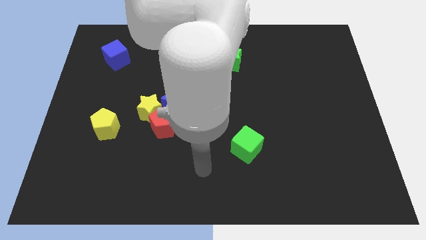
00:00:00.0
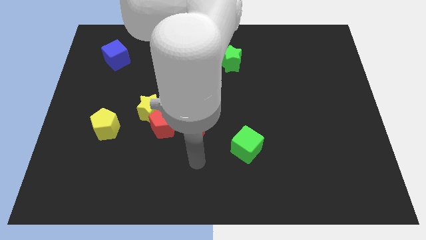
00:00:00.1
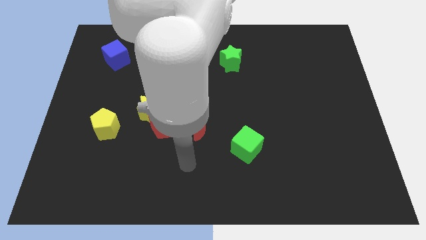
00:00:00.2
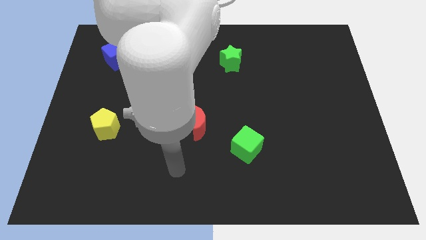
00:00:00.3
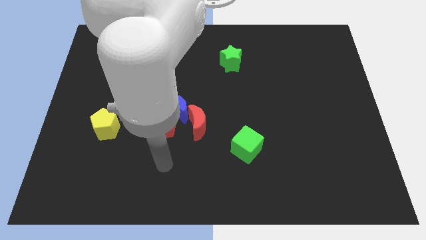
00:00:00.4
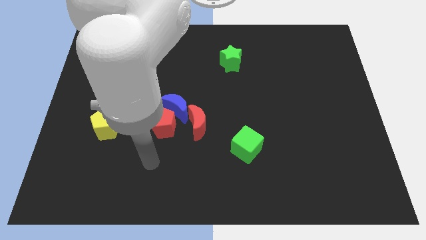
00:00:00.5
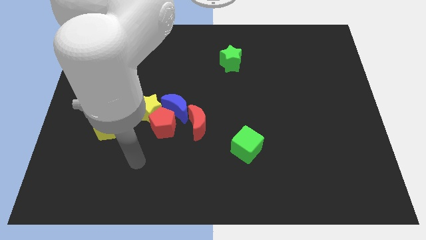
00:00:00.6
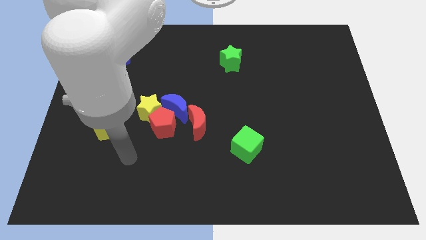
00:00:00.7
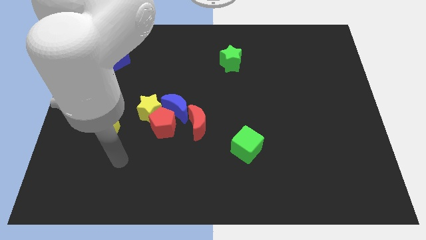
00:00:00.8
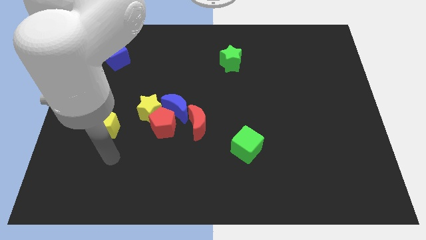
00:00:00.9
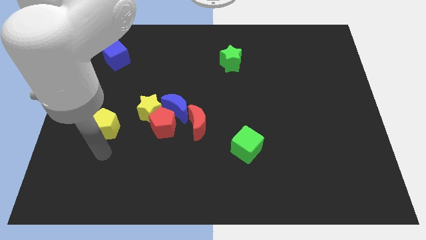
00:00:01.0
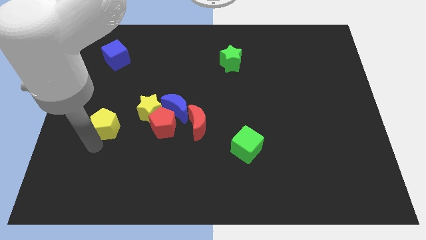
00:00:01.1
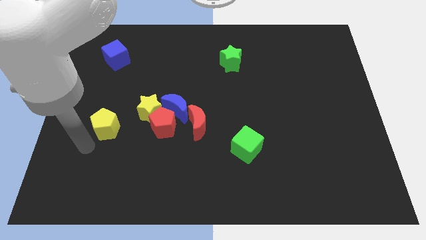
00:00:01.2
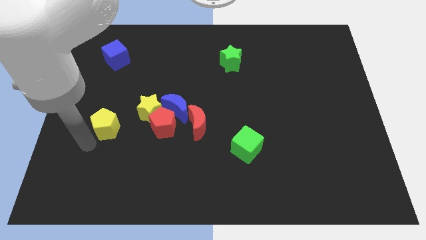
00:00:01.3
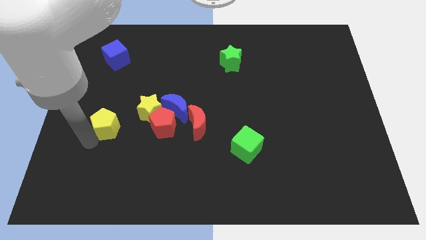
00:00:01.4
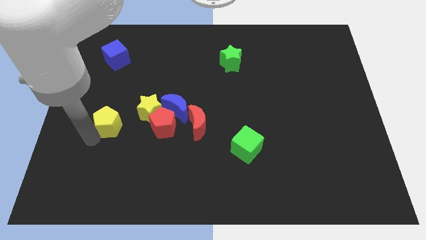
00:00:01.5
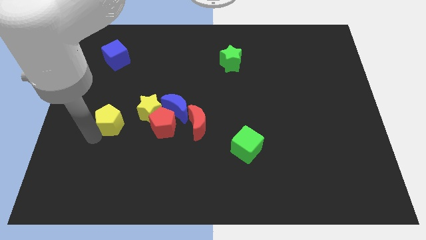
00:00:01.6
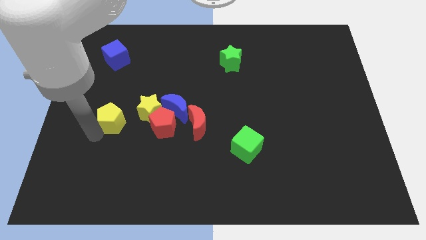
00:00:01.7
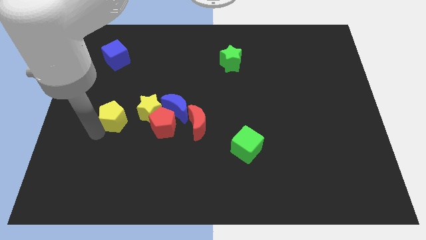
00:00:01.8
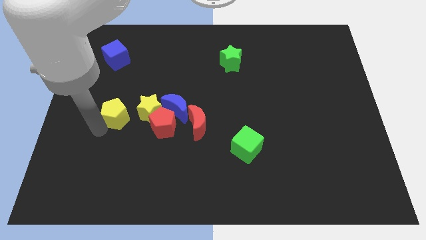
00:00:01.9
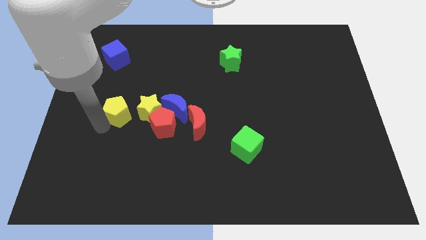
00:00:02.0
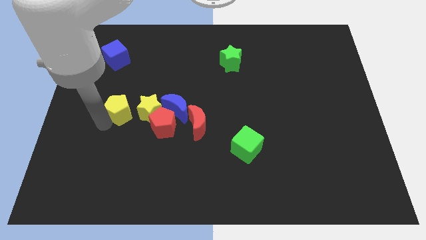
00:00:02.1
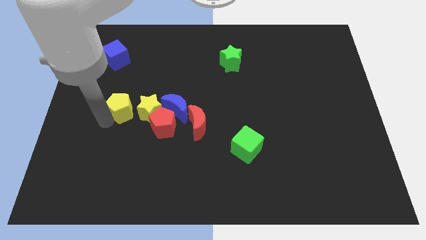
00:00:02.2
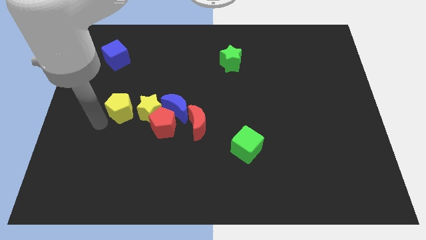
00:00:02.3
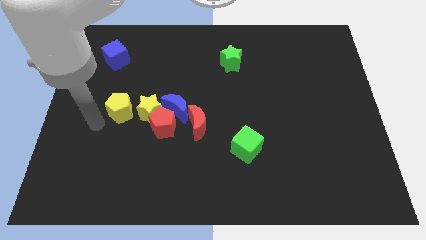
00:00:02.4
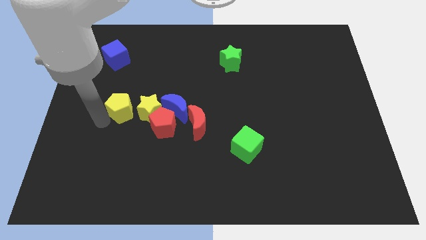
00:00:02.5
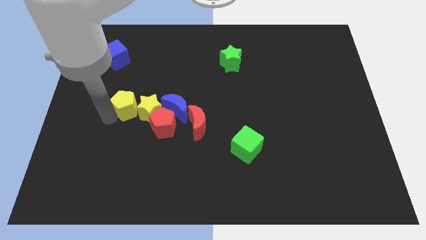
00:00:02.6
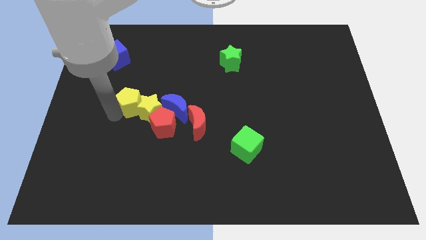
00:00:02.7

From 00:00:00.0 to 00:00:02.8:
slightly slide the yellow pentagon diagonally upwards and to the right

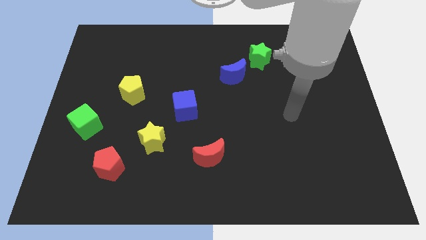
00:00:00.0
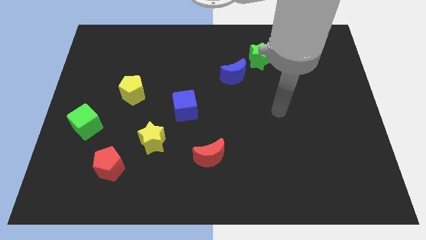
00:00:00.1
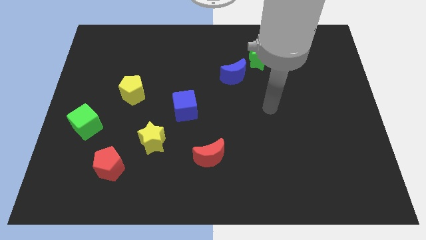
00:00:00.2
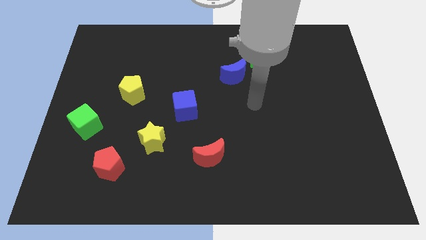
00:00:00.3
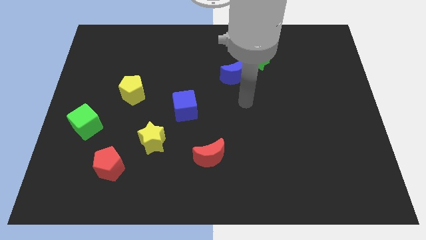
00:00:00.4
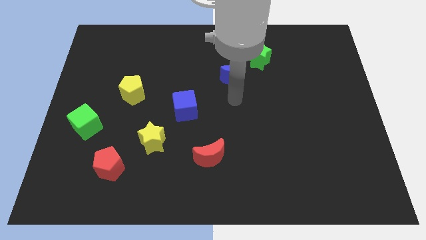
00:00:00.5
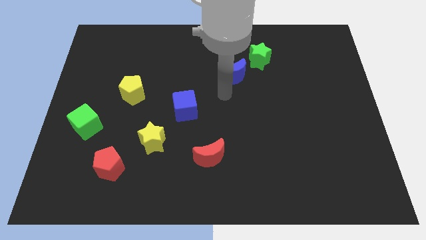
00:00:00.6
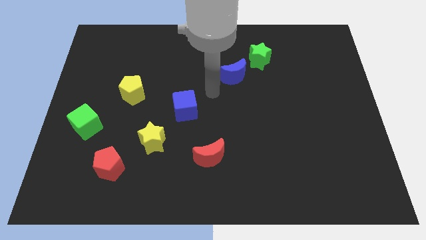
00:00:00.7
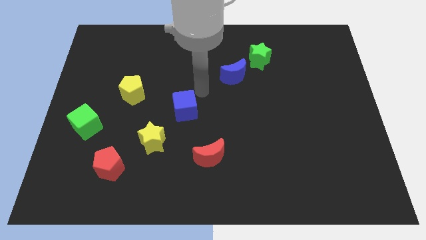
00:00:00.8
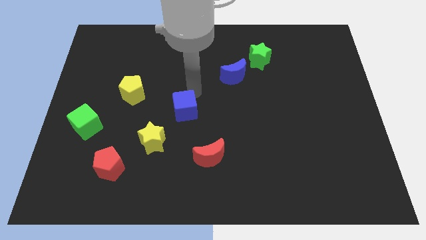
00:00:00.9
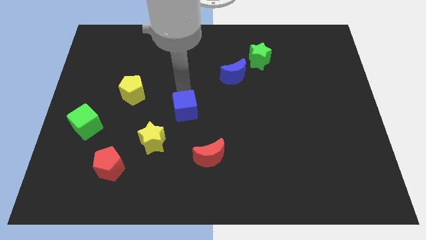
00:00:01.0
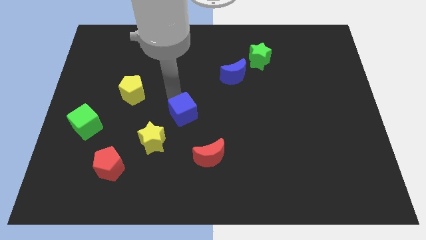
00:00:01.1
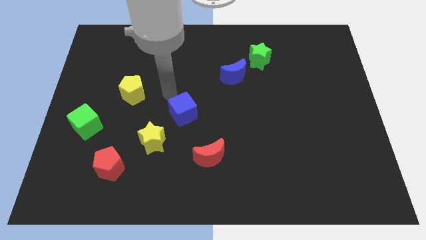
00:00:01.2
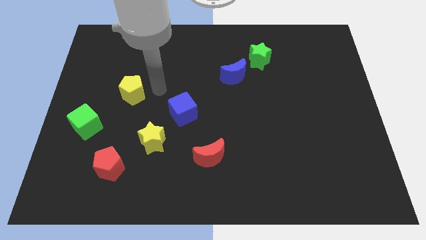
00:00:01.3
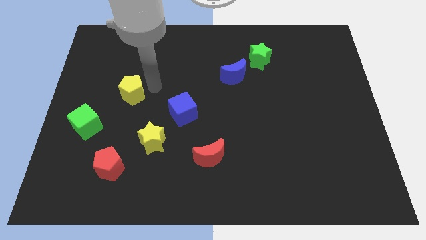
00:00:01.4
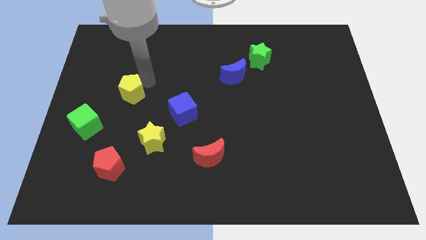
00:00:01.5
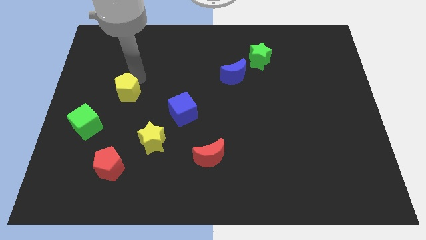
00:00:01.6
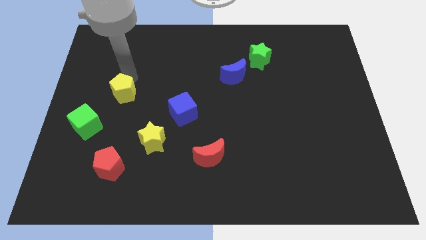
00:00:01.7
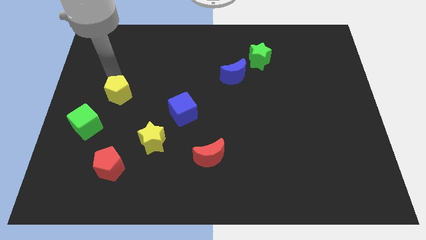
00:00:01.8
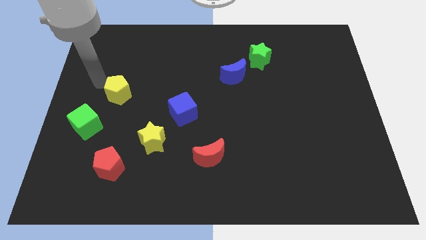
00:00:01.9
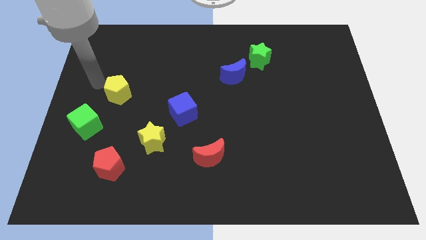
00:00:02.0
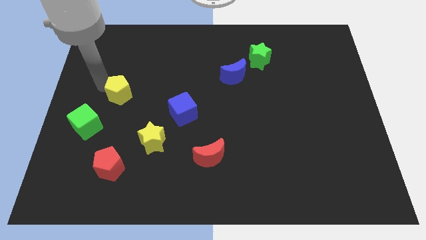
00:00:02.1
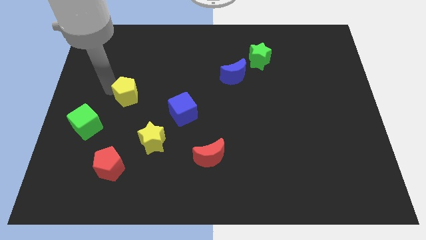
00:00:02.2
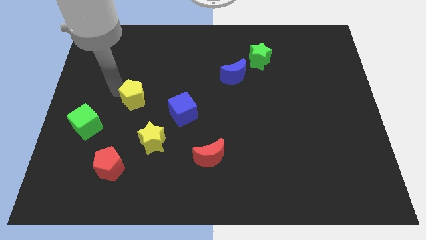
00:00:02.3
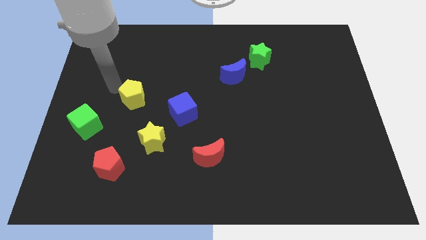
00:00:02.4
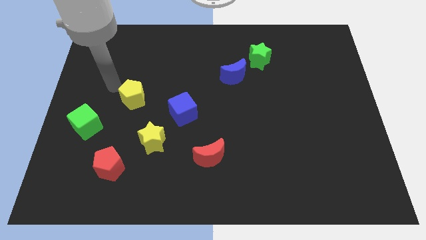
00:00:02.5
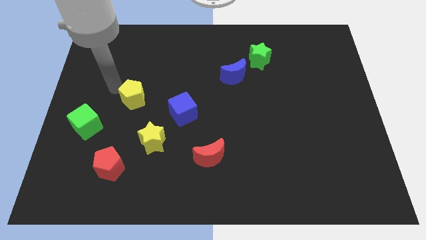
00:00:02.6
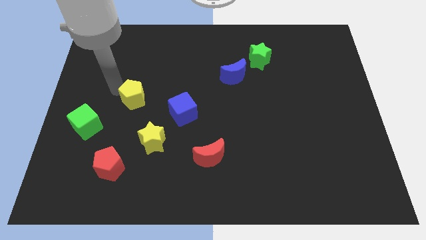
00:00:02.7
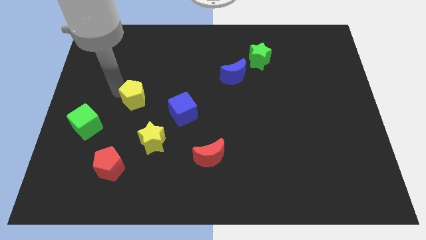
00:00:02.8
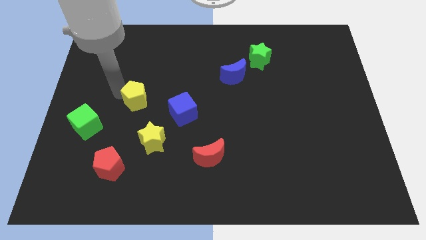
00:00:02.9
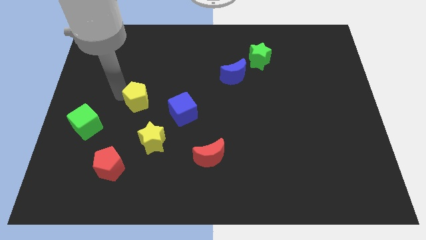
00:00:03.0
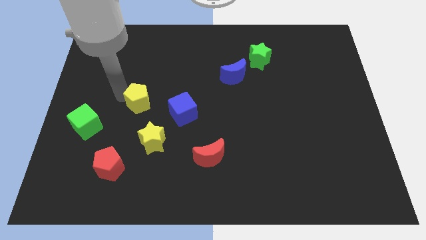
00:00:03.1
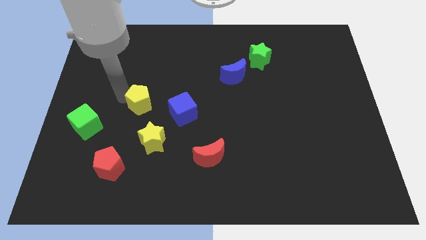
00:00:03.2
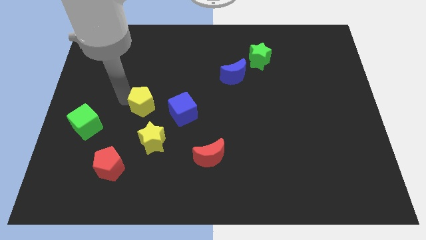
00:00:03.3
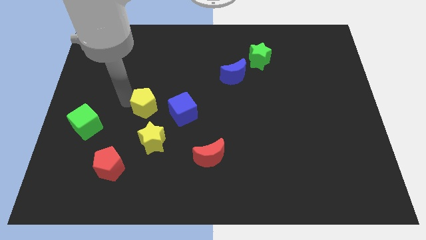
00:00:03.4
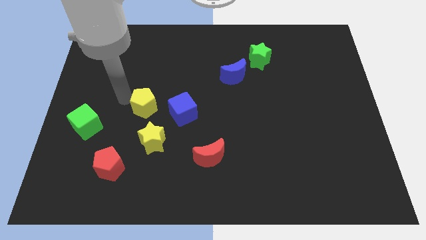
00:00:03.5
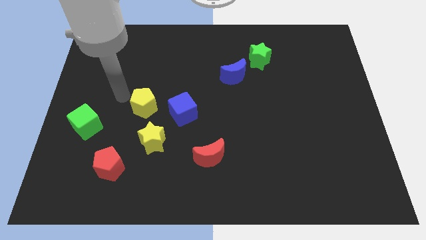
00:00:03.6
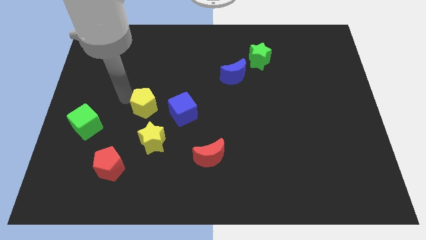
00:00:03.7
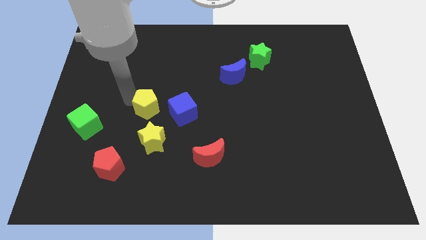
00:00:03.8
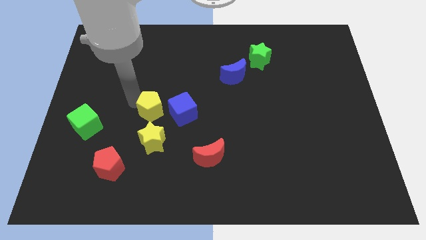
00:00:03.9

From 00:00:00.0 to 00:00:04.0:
slide the yellow pentagon a bit diagonally down and right

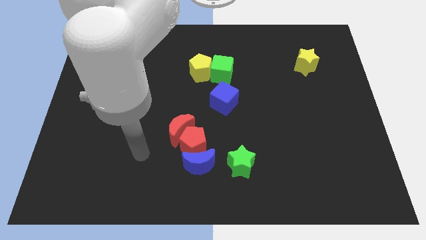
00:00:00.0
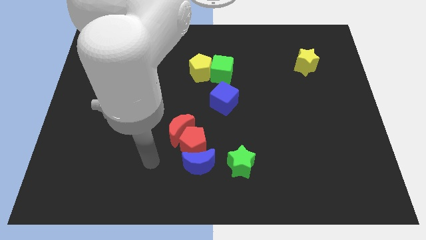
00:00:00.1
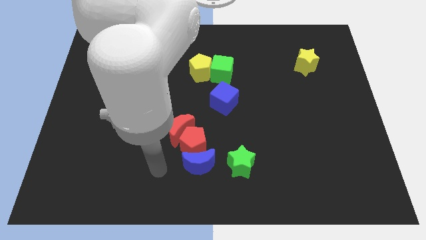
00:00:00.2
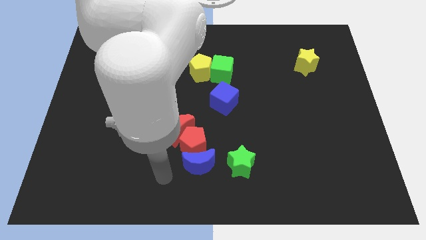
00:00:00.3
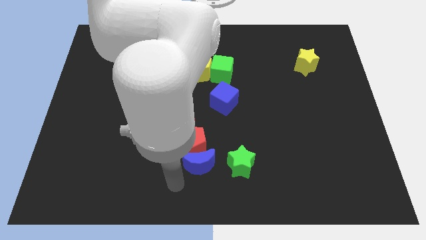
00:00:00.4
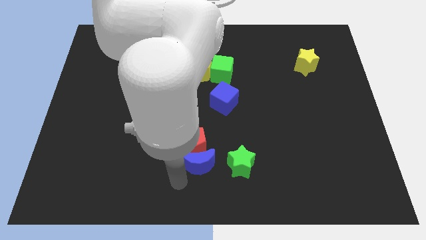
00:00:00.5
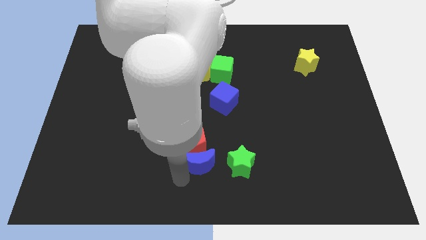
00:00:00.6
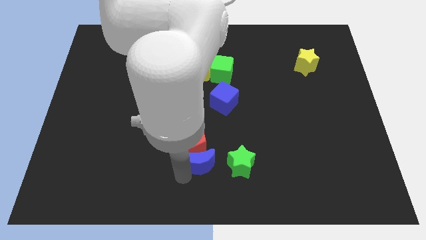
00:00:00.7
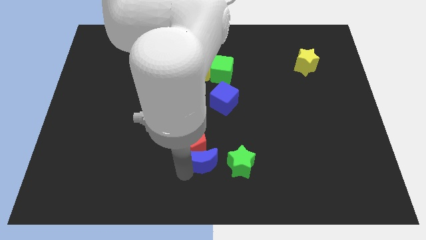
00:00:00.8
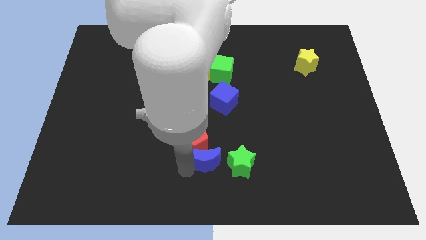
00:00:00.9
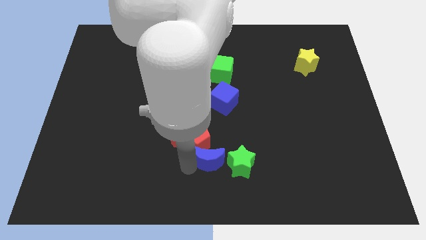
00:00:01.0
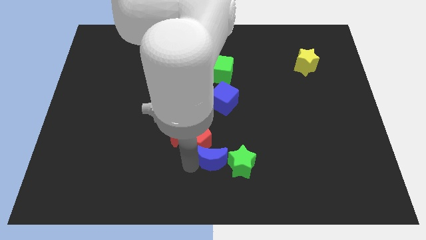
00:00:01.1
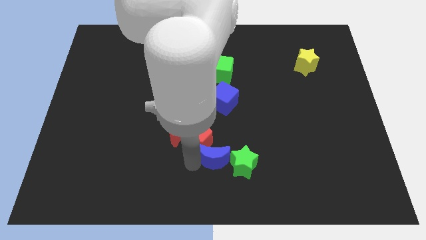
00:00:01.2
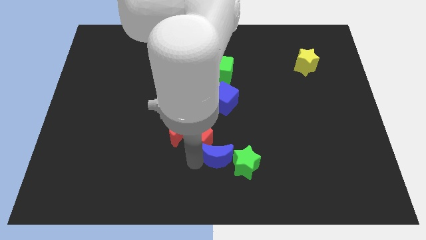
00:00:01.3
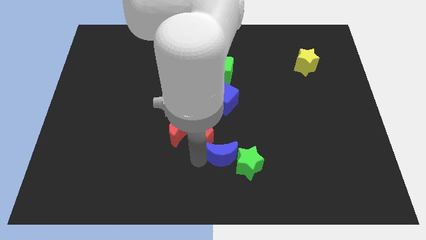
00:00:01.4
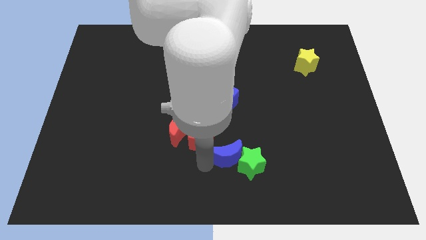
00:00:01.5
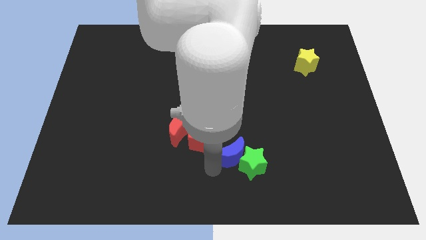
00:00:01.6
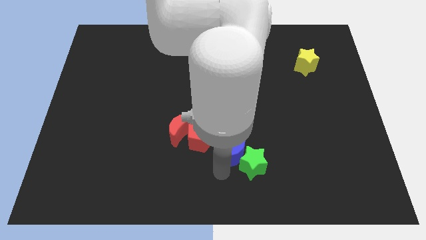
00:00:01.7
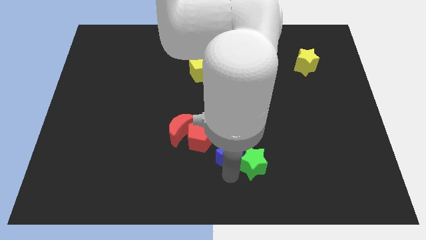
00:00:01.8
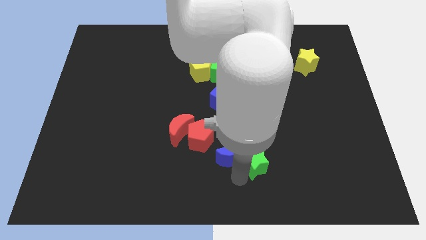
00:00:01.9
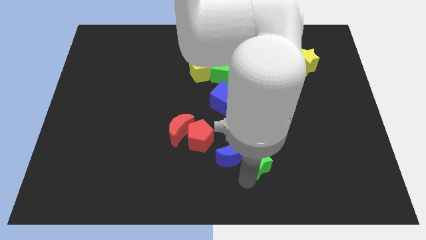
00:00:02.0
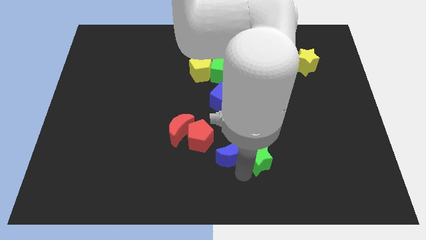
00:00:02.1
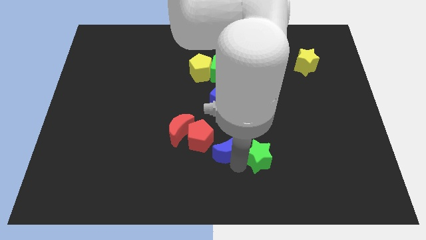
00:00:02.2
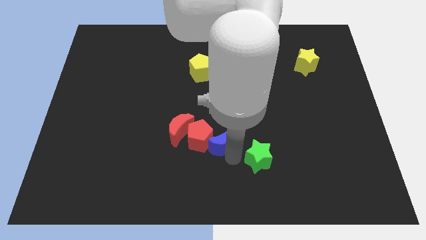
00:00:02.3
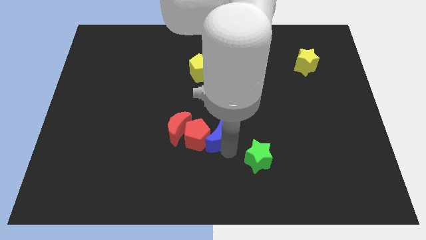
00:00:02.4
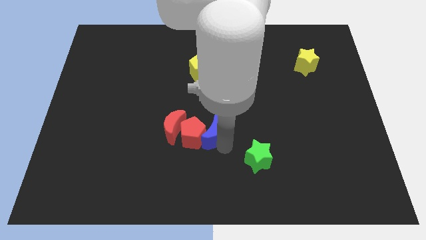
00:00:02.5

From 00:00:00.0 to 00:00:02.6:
slide the blue moon slightly up
